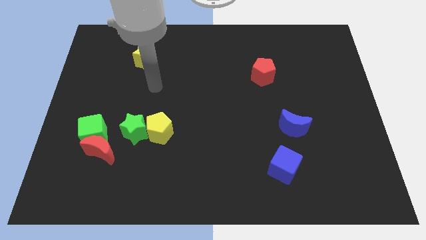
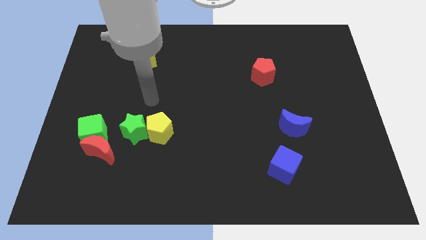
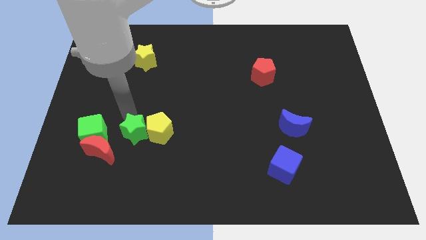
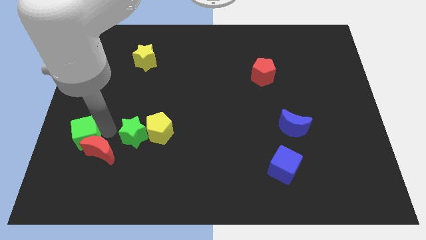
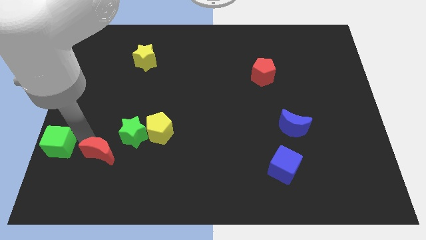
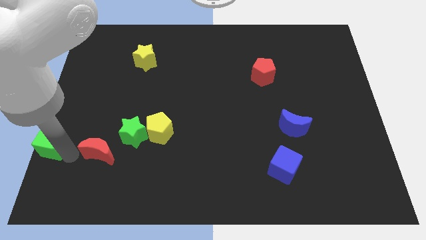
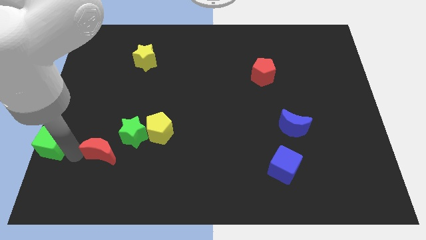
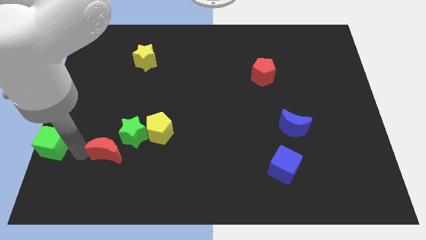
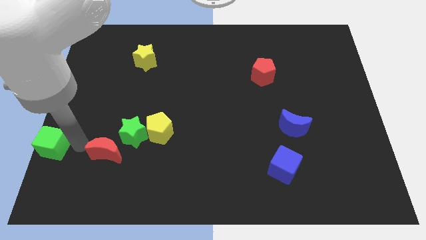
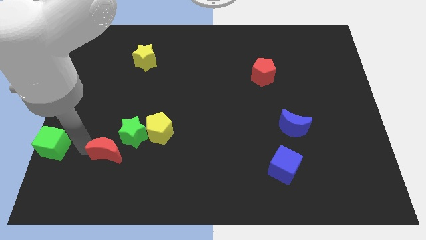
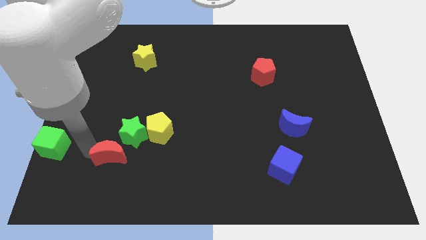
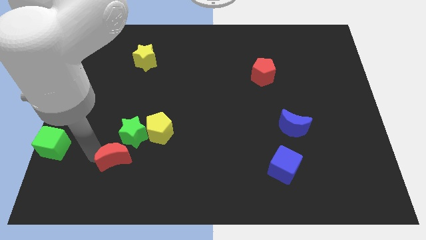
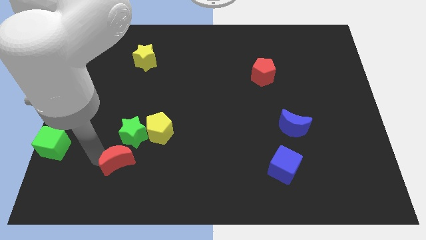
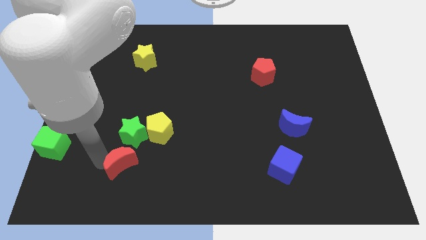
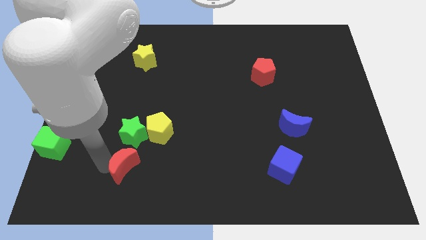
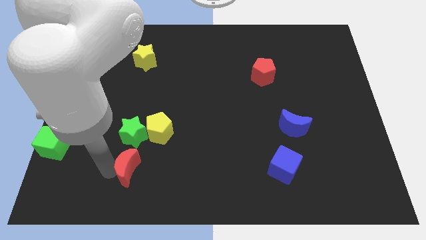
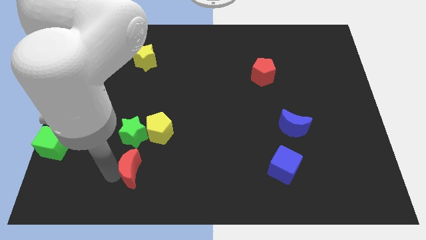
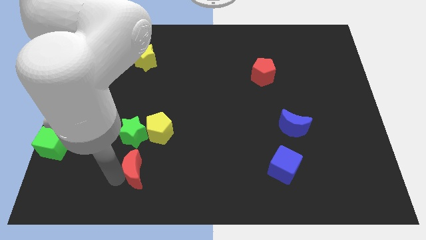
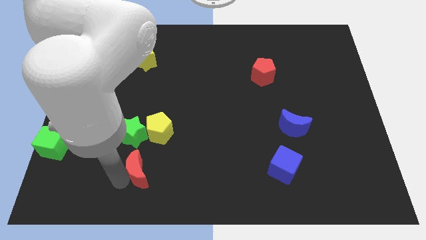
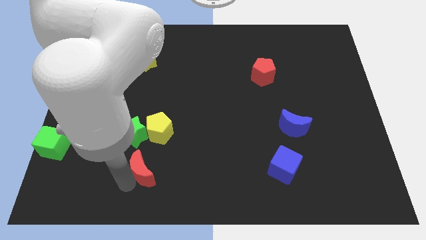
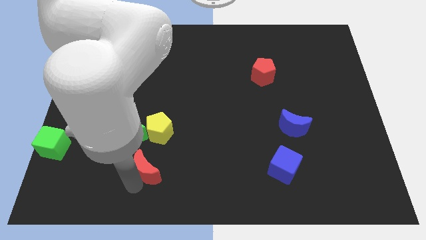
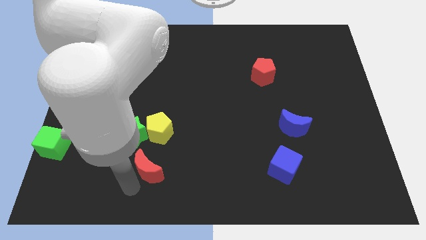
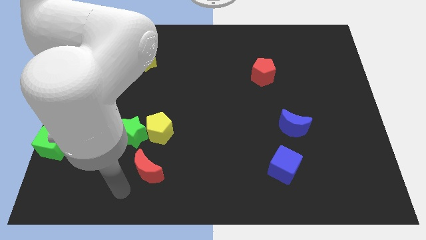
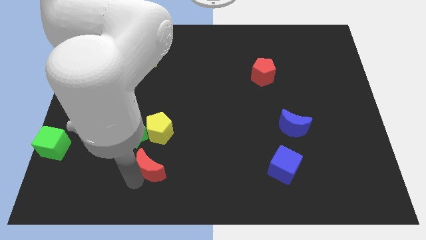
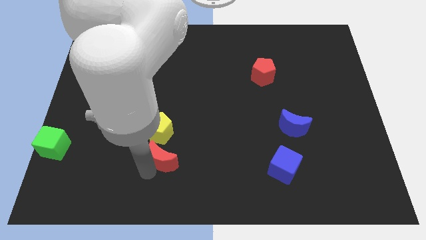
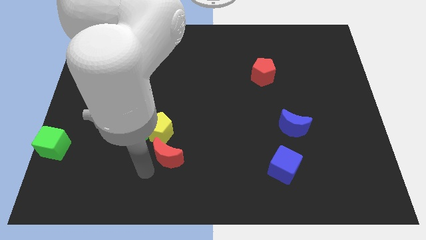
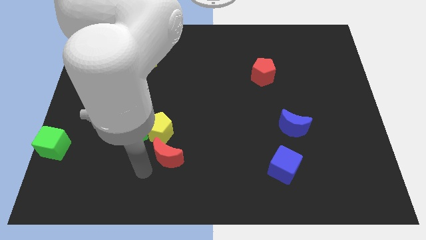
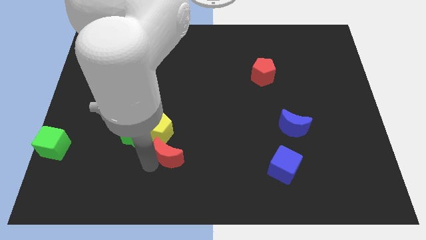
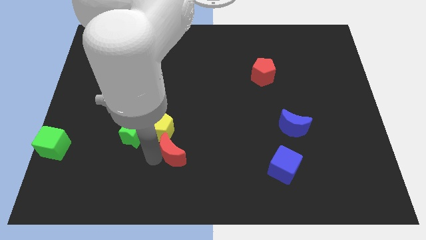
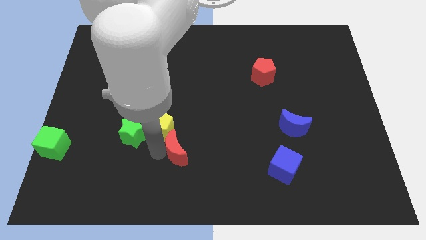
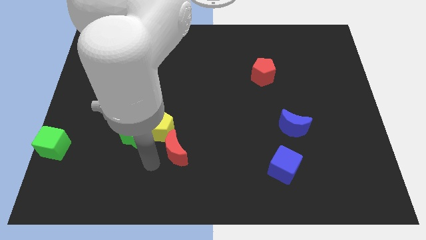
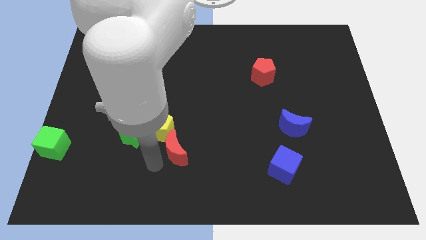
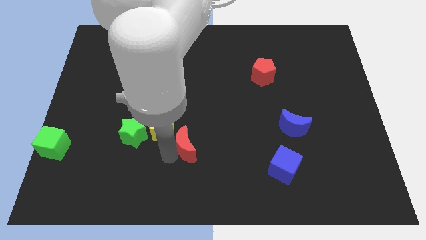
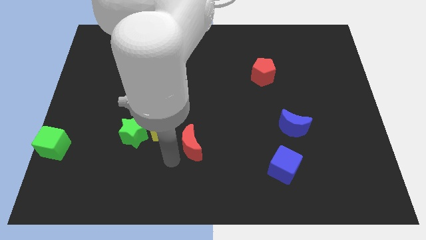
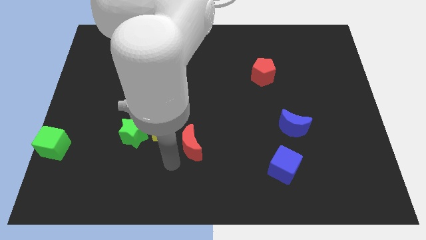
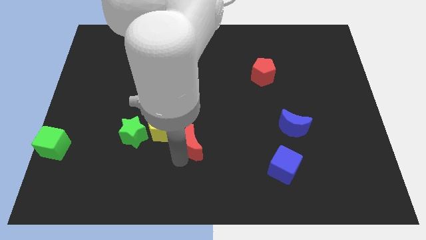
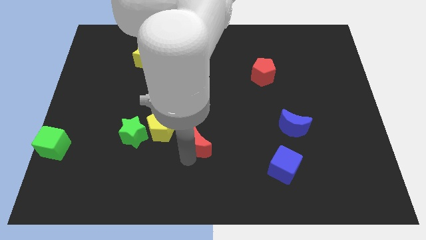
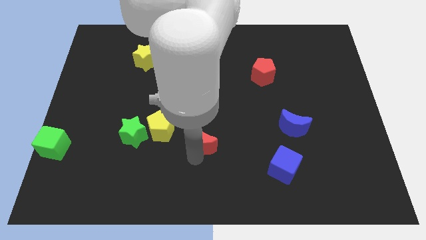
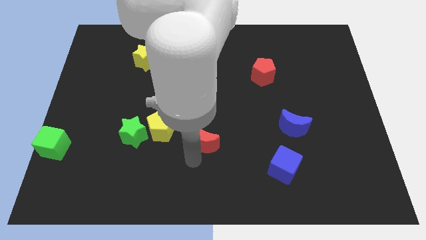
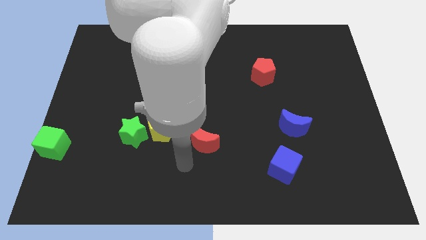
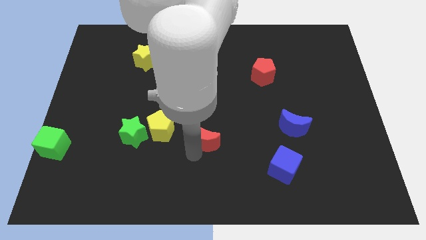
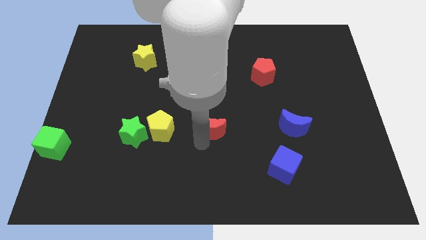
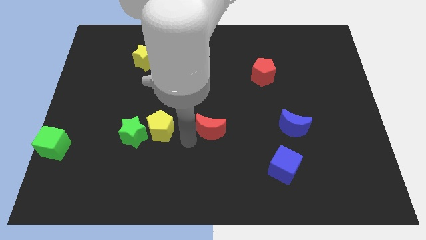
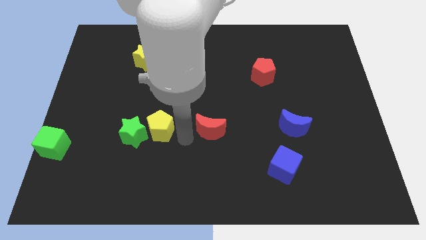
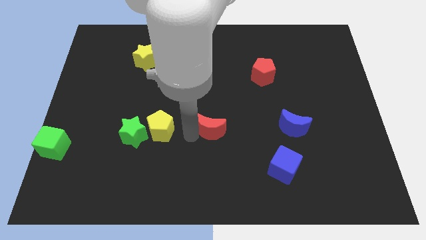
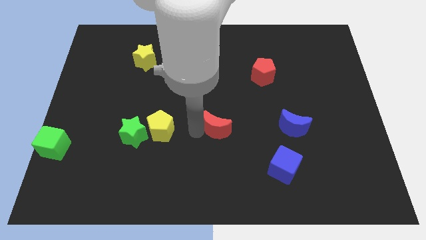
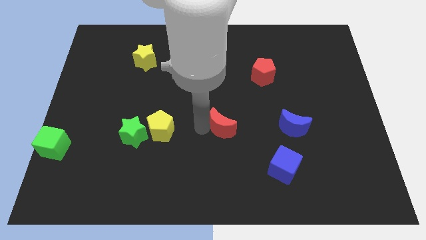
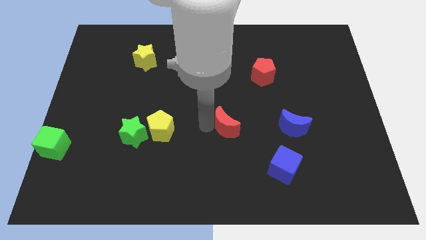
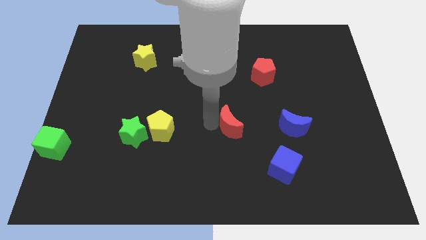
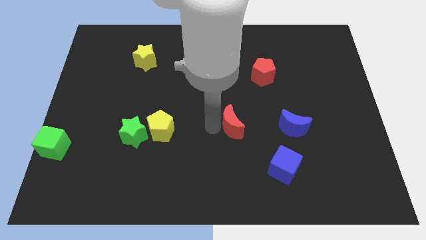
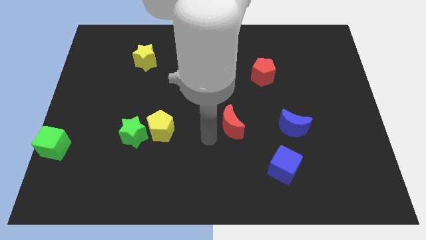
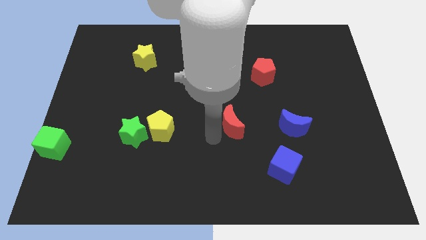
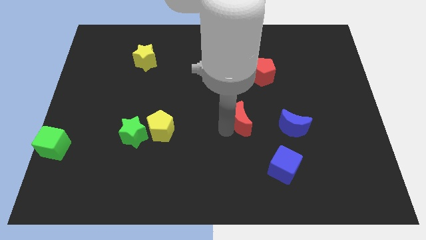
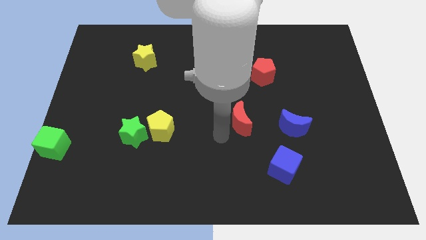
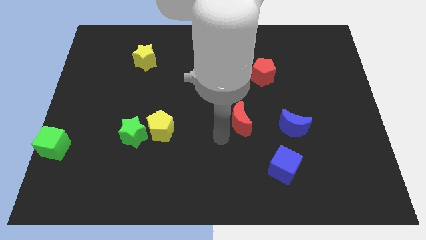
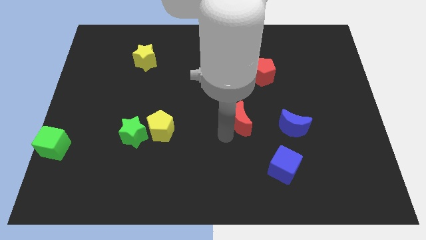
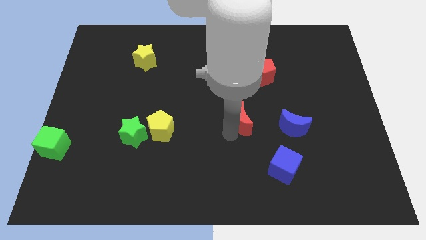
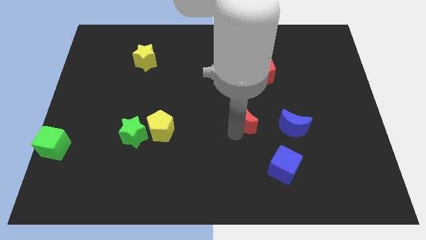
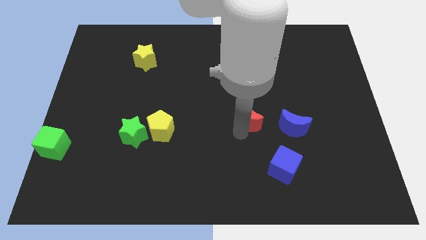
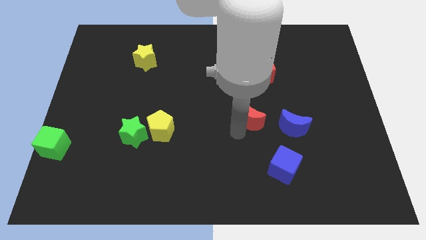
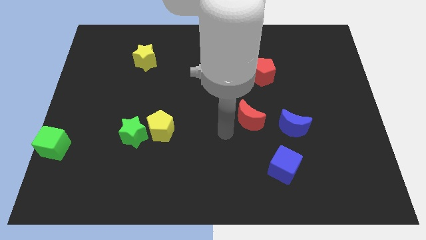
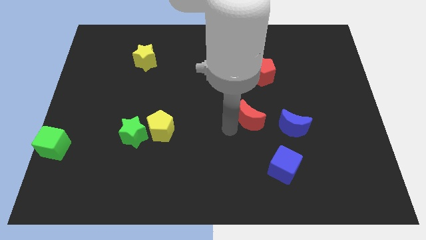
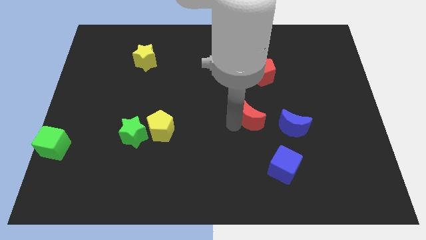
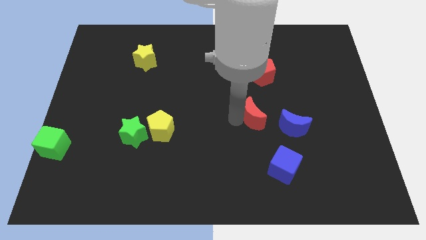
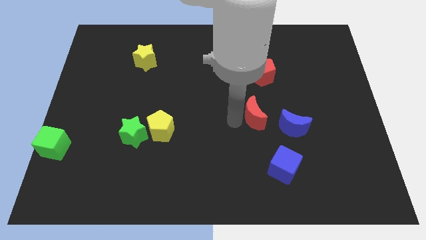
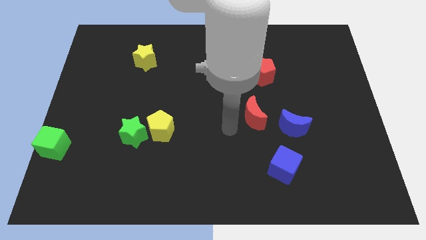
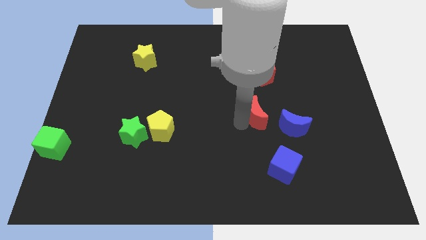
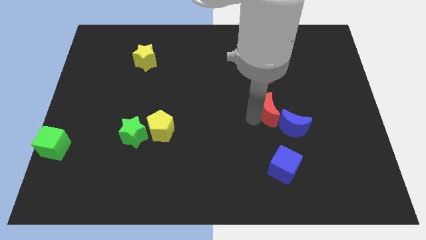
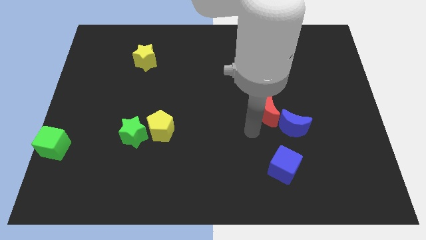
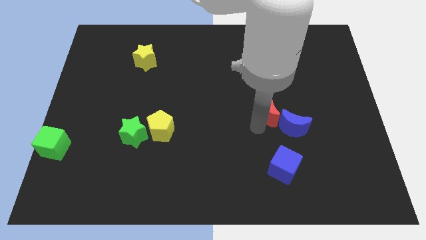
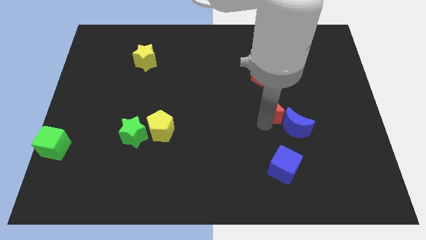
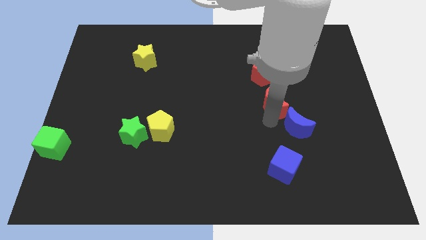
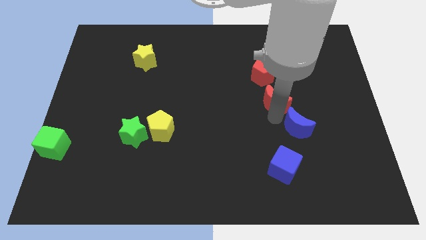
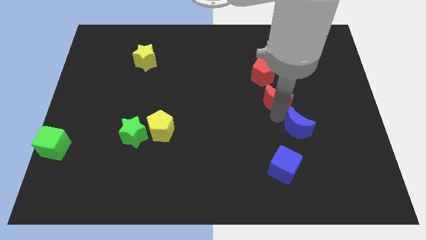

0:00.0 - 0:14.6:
put the red moon to the bottom right side of the red pentagon
